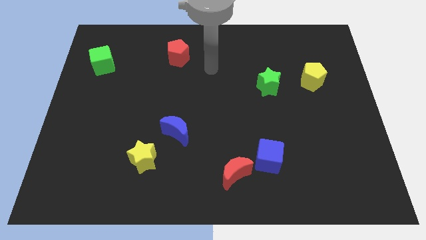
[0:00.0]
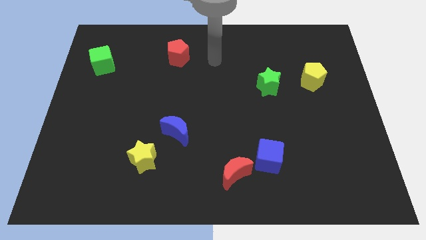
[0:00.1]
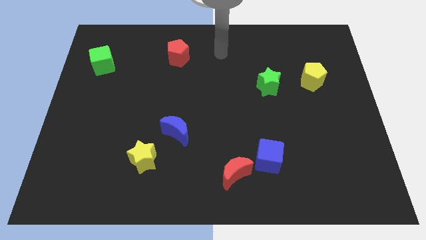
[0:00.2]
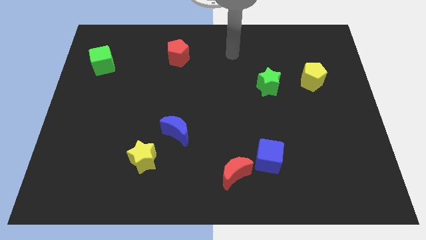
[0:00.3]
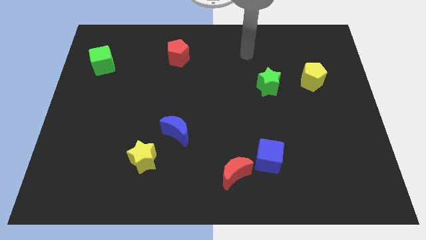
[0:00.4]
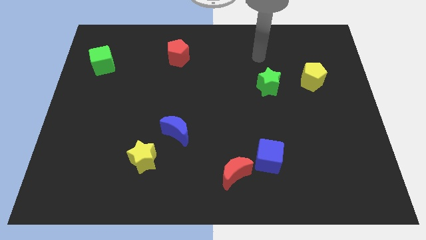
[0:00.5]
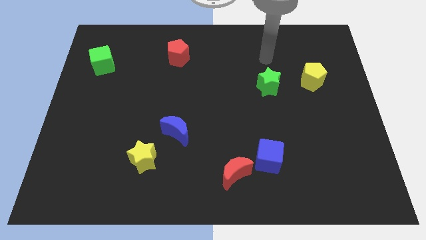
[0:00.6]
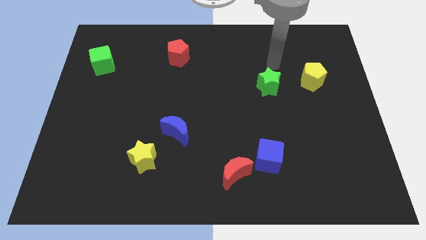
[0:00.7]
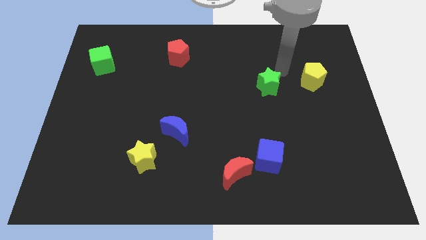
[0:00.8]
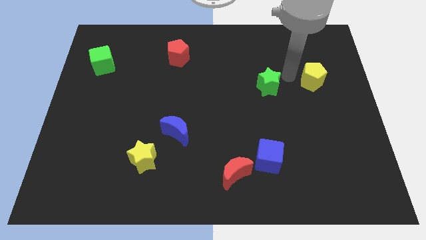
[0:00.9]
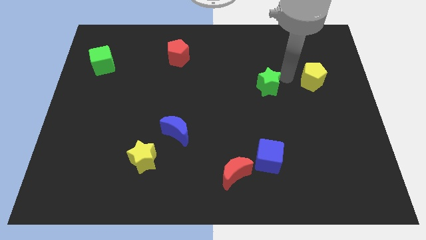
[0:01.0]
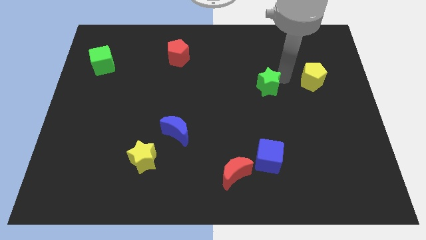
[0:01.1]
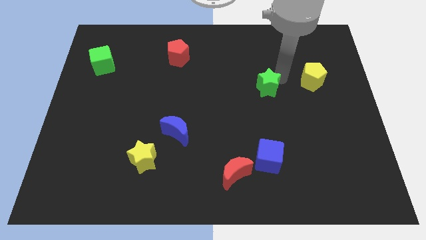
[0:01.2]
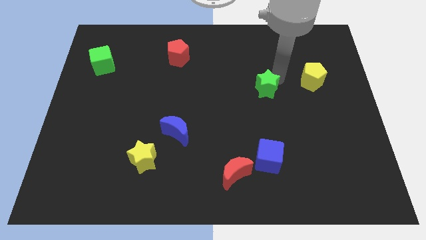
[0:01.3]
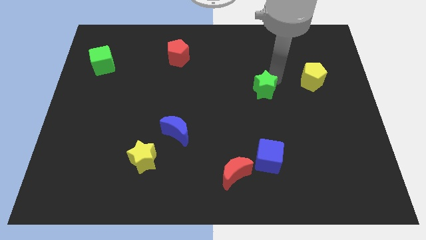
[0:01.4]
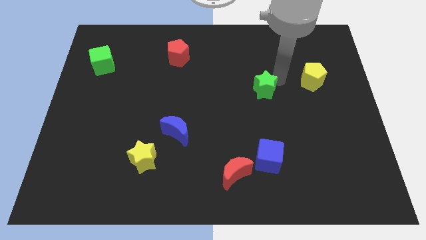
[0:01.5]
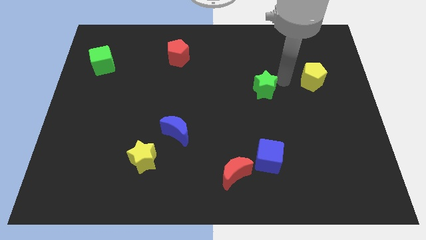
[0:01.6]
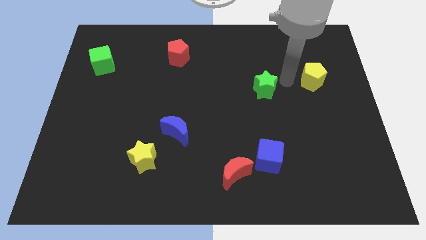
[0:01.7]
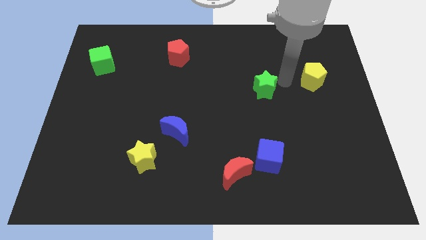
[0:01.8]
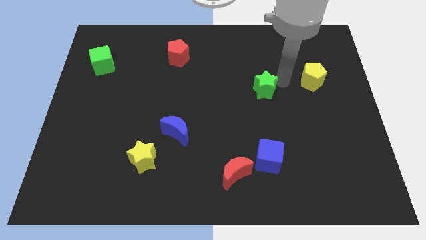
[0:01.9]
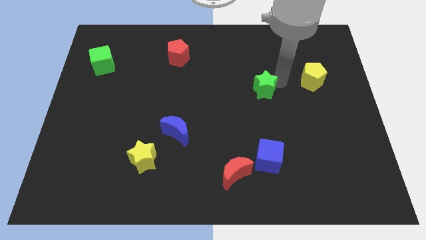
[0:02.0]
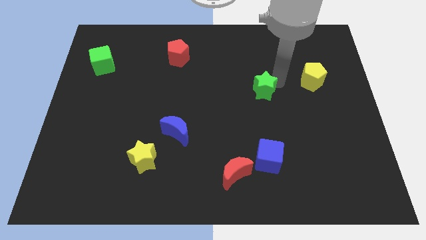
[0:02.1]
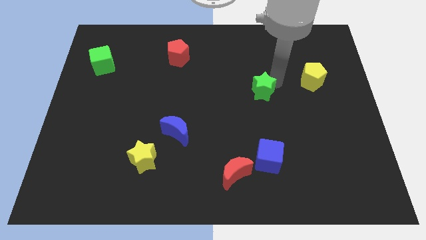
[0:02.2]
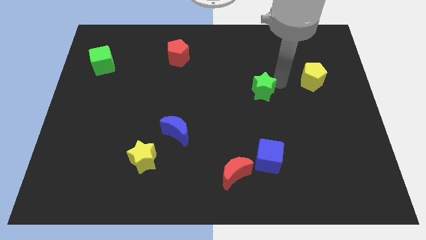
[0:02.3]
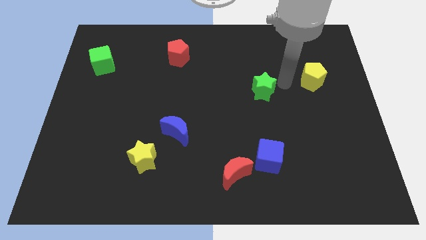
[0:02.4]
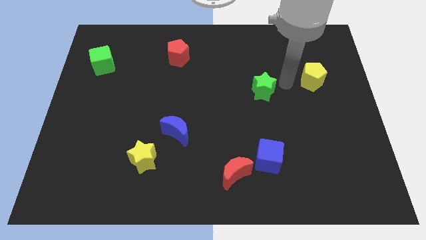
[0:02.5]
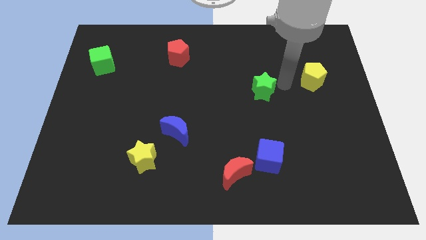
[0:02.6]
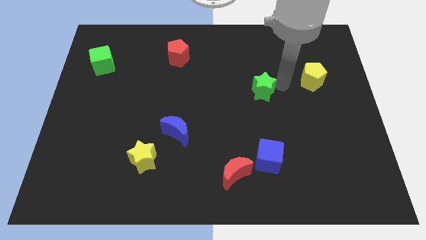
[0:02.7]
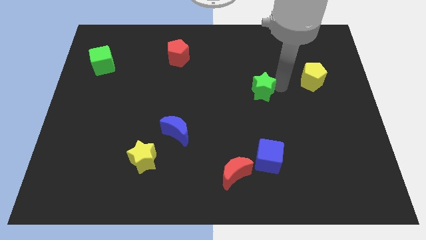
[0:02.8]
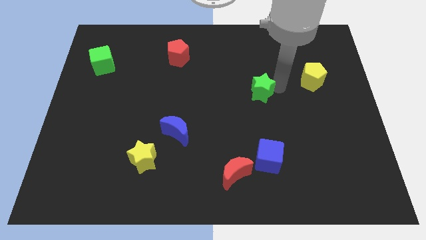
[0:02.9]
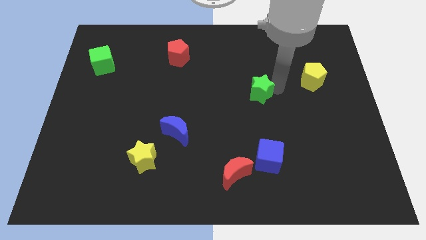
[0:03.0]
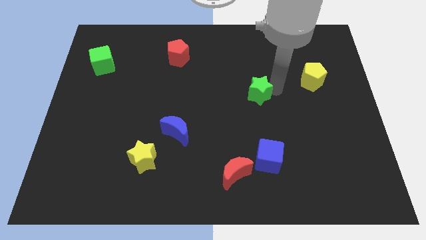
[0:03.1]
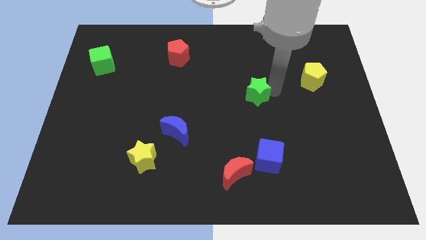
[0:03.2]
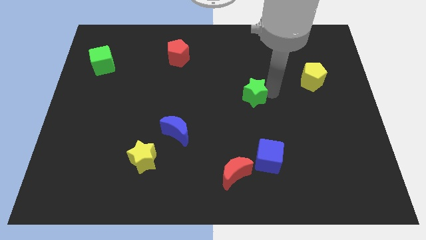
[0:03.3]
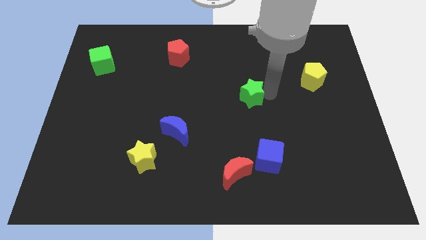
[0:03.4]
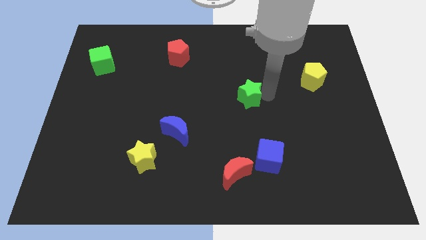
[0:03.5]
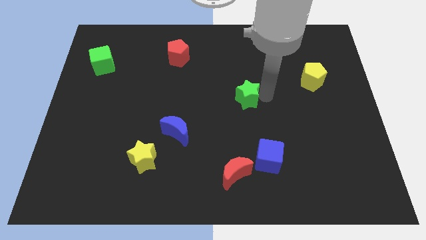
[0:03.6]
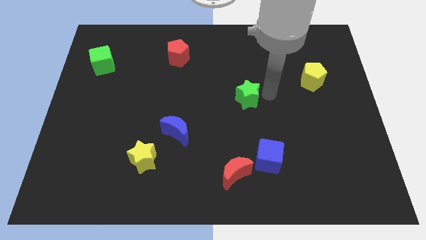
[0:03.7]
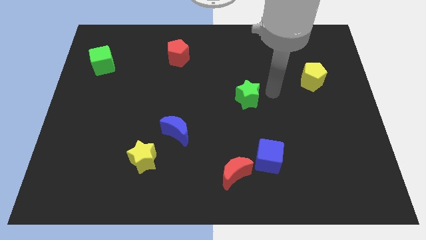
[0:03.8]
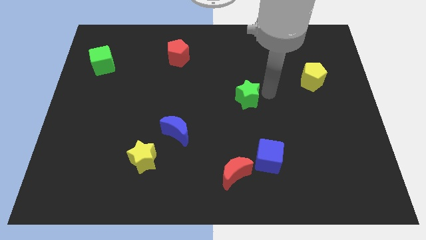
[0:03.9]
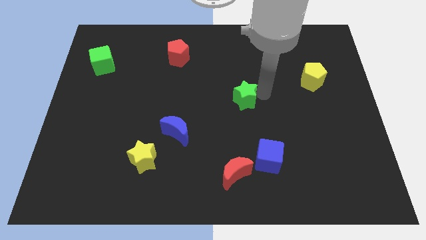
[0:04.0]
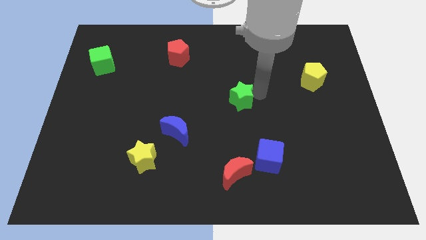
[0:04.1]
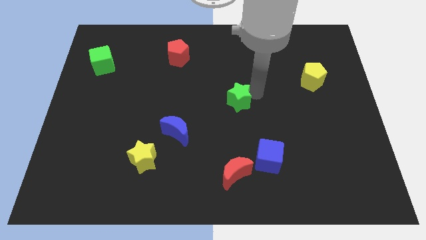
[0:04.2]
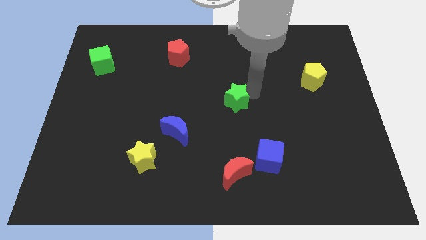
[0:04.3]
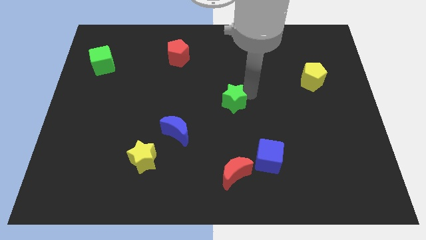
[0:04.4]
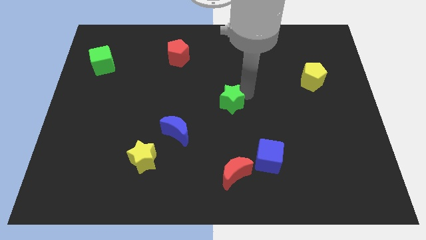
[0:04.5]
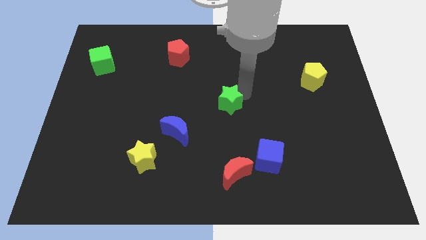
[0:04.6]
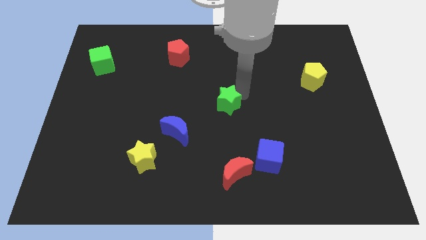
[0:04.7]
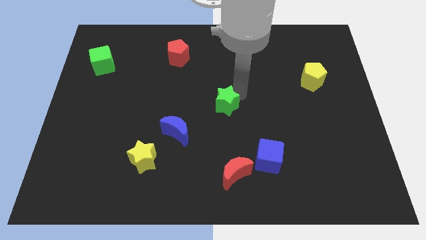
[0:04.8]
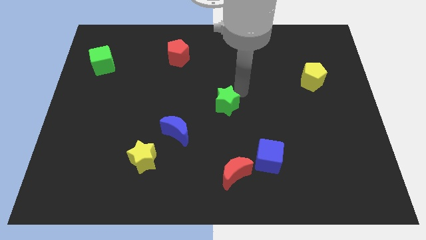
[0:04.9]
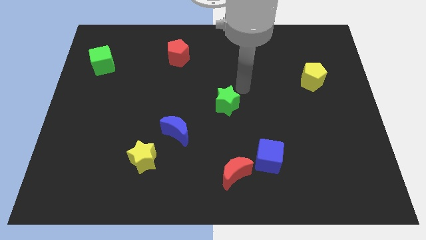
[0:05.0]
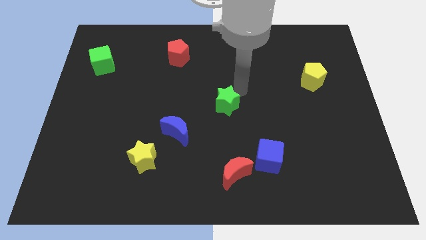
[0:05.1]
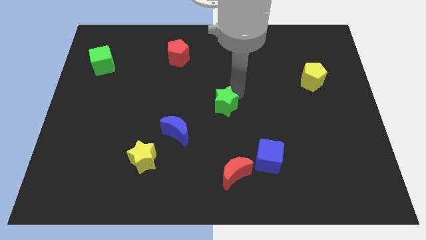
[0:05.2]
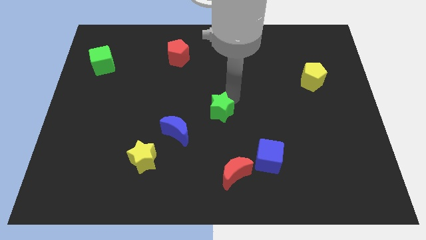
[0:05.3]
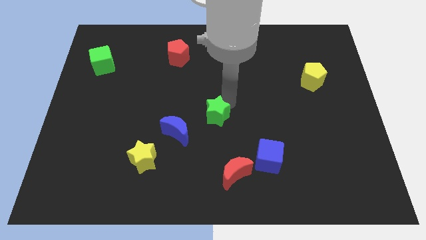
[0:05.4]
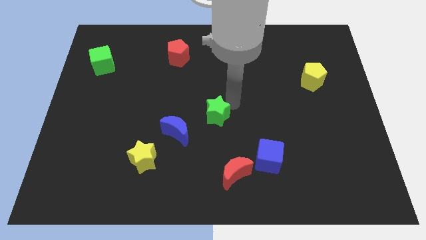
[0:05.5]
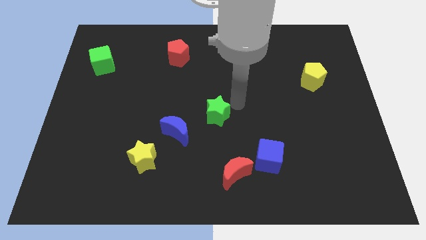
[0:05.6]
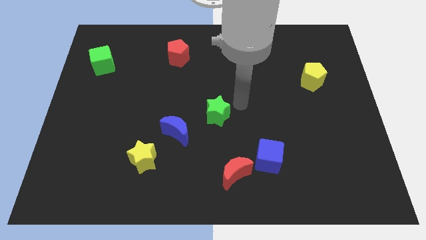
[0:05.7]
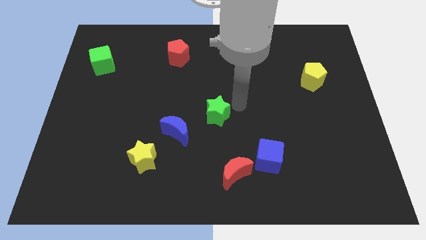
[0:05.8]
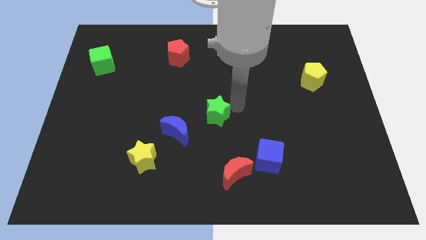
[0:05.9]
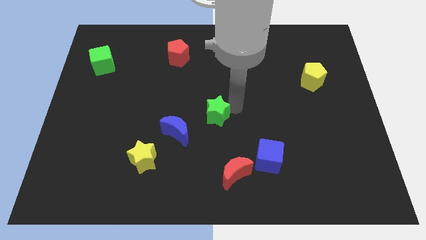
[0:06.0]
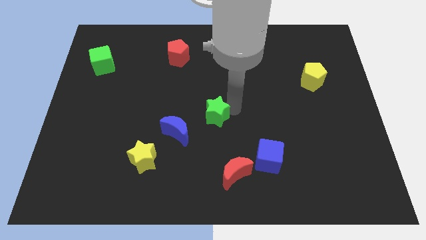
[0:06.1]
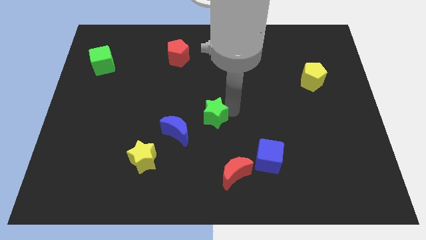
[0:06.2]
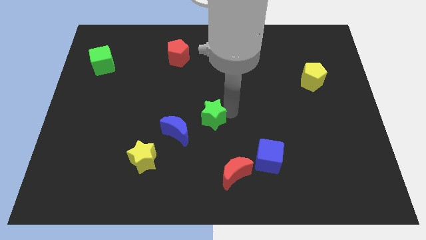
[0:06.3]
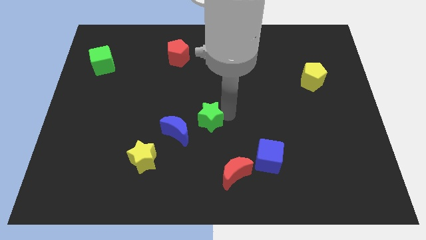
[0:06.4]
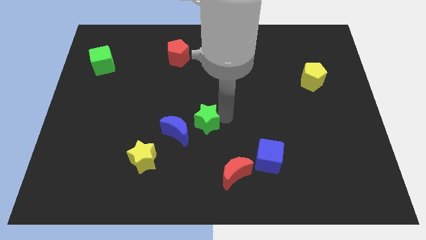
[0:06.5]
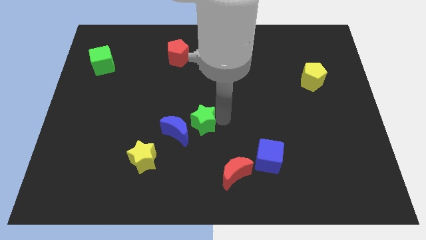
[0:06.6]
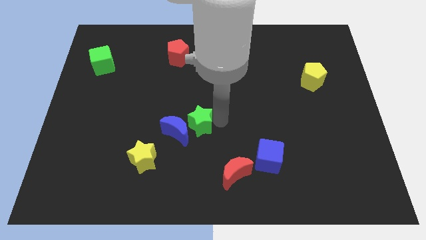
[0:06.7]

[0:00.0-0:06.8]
move the green star towards the blue moon
